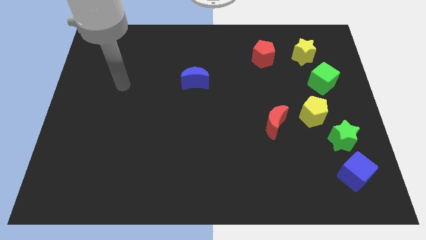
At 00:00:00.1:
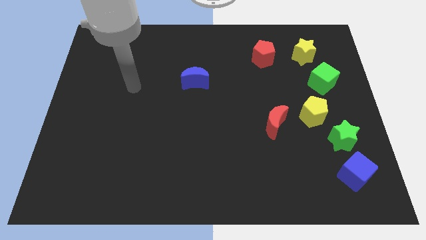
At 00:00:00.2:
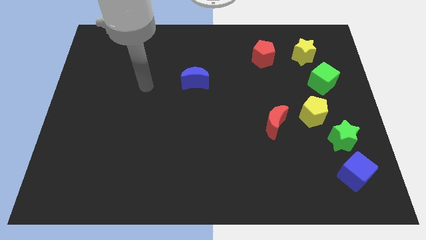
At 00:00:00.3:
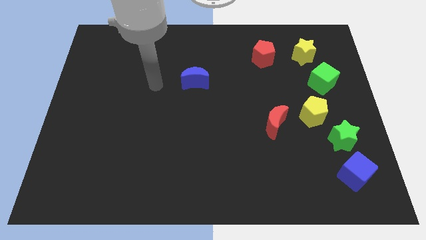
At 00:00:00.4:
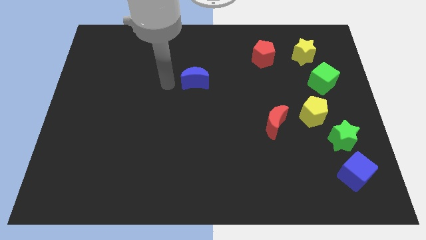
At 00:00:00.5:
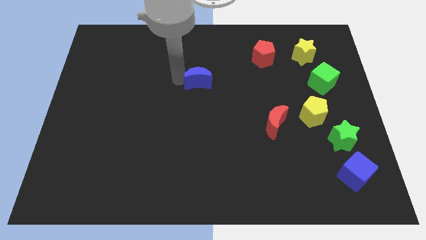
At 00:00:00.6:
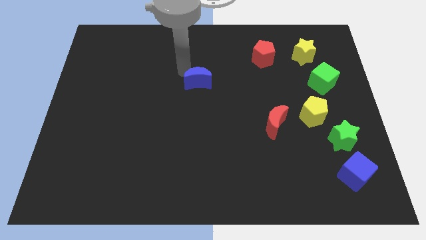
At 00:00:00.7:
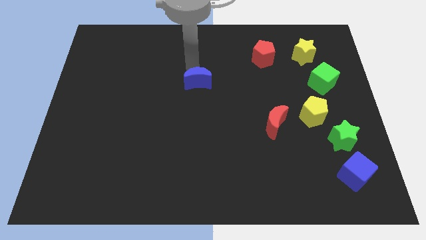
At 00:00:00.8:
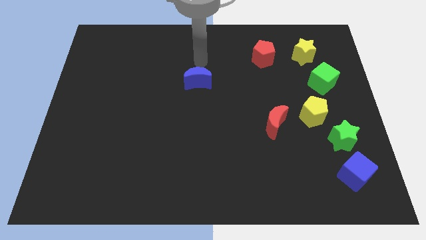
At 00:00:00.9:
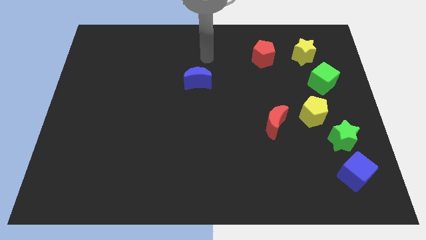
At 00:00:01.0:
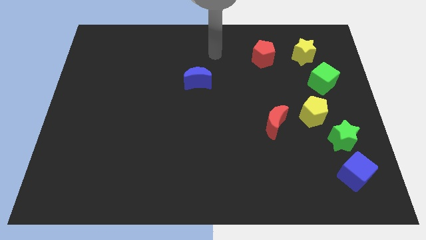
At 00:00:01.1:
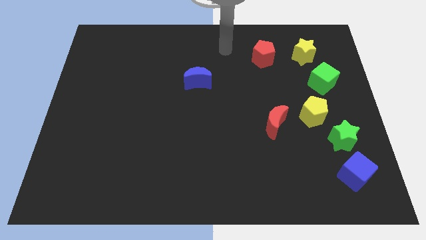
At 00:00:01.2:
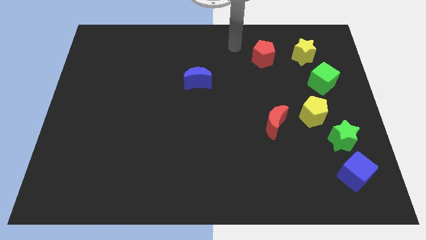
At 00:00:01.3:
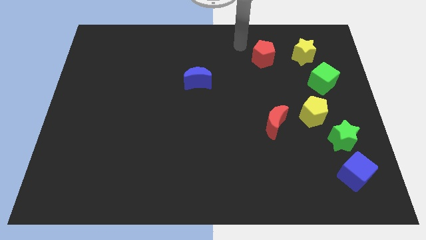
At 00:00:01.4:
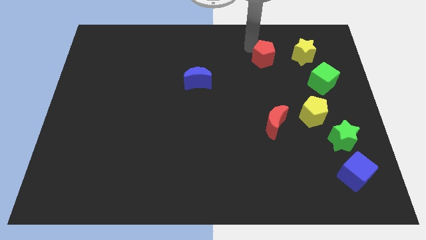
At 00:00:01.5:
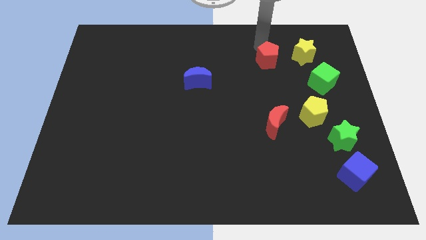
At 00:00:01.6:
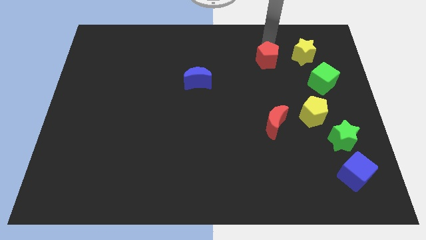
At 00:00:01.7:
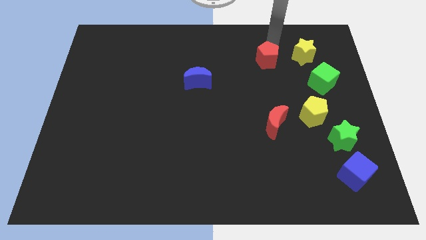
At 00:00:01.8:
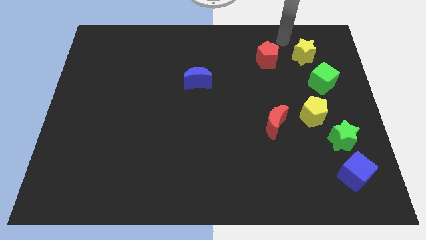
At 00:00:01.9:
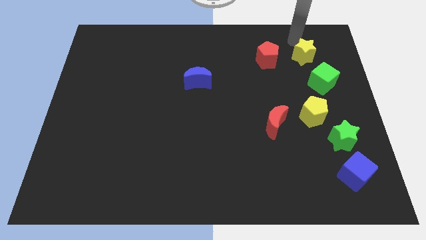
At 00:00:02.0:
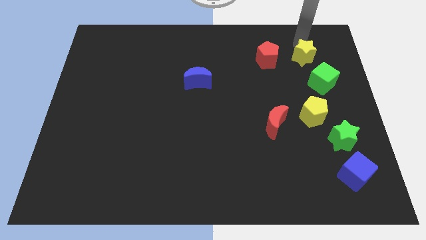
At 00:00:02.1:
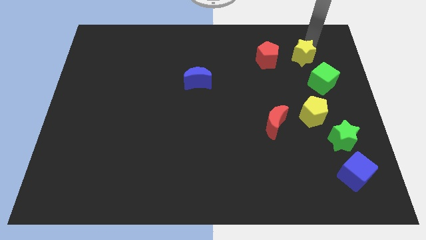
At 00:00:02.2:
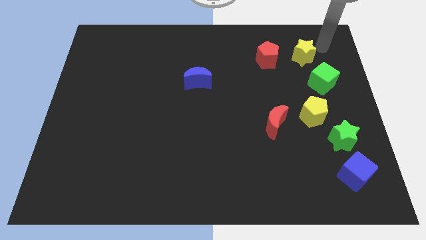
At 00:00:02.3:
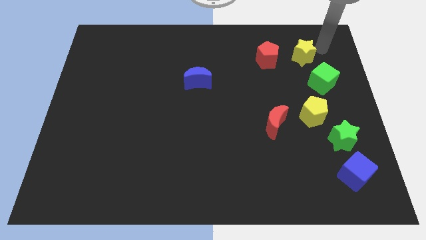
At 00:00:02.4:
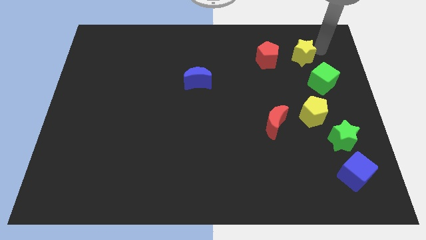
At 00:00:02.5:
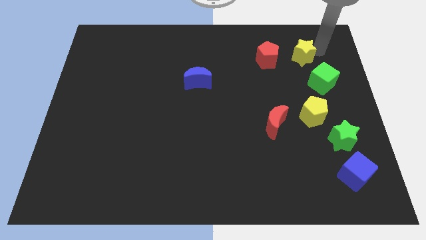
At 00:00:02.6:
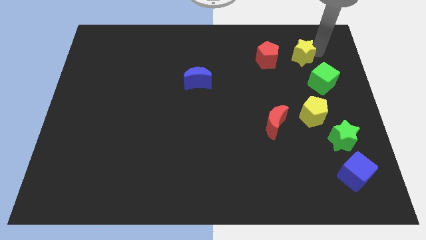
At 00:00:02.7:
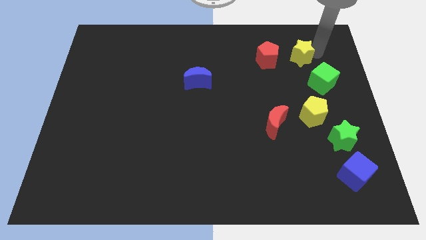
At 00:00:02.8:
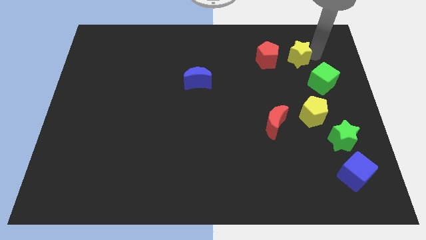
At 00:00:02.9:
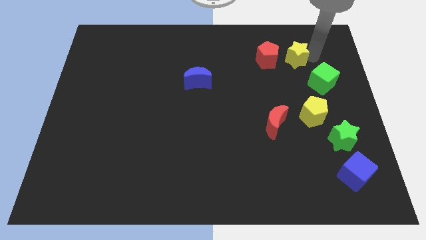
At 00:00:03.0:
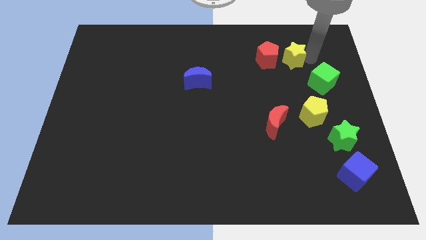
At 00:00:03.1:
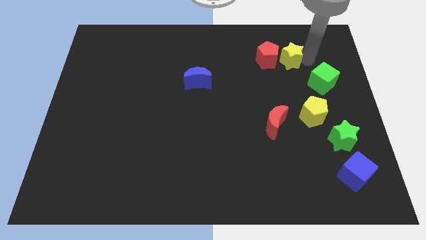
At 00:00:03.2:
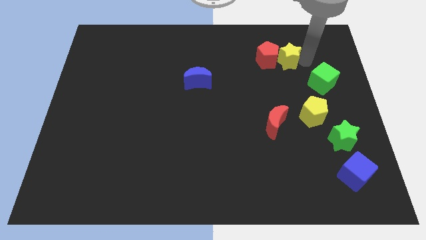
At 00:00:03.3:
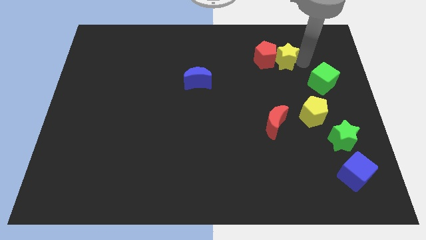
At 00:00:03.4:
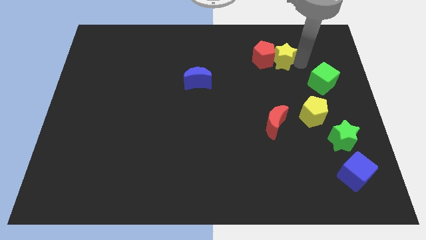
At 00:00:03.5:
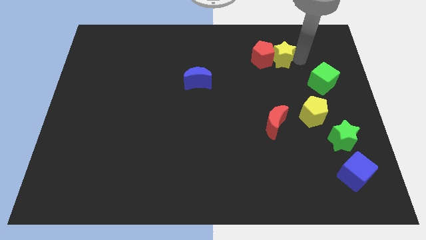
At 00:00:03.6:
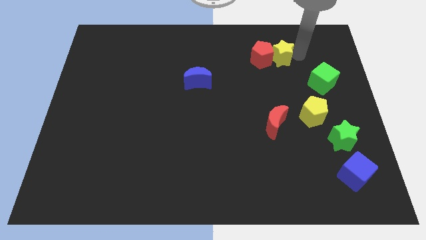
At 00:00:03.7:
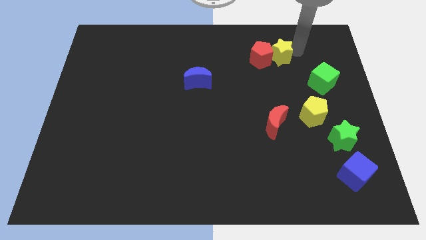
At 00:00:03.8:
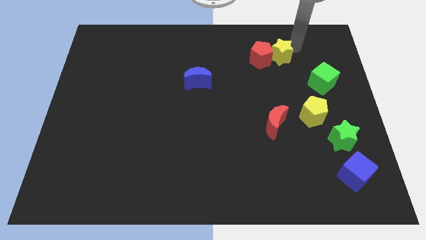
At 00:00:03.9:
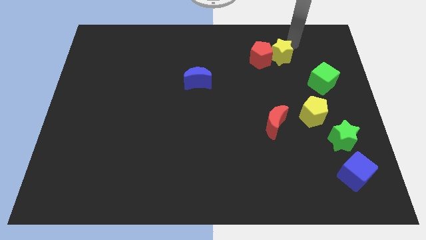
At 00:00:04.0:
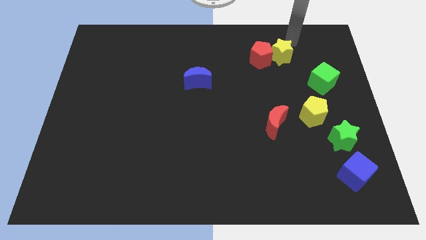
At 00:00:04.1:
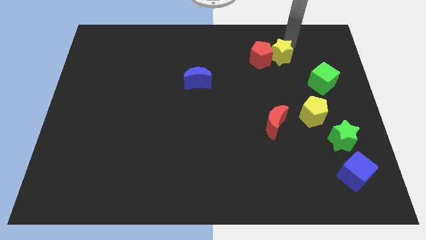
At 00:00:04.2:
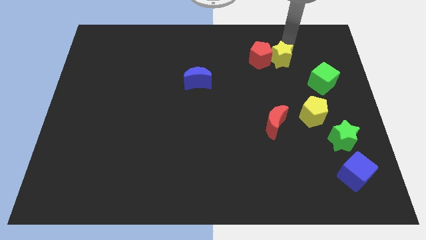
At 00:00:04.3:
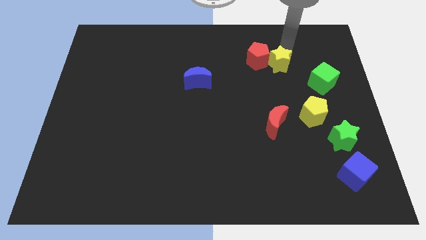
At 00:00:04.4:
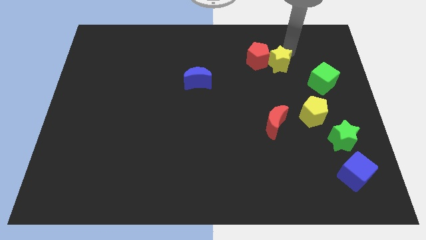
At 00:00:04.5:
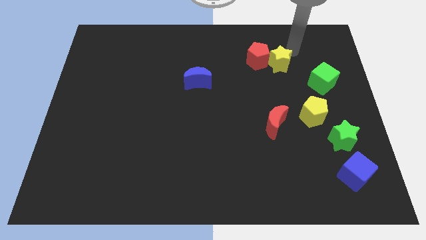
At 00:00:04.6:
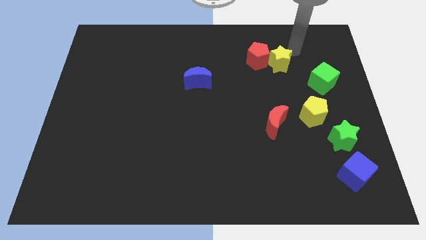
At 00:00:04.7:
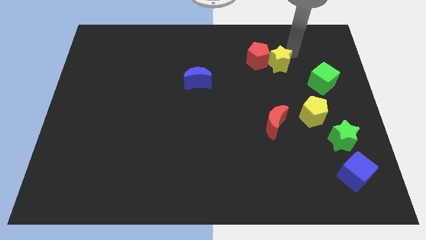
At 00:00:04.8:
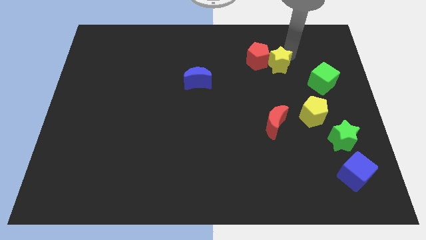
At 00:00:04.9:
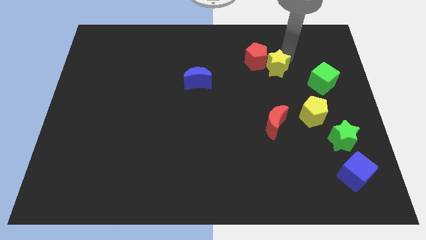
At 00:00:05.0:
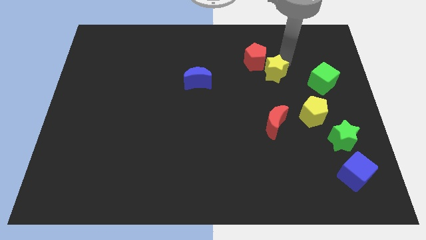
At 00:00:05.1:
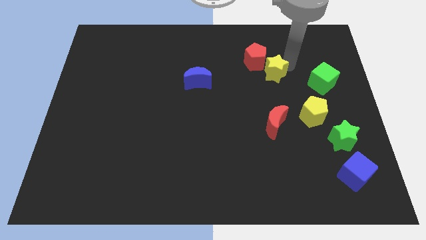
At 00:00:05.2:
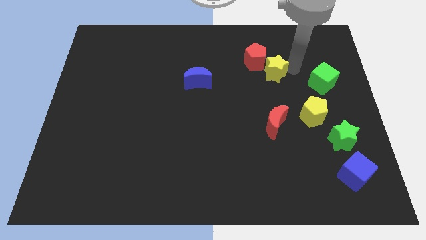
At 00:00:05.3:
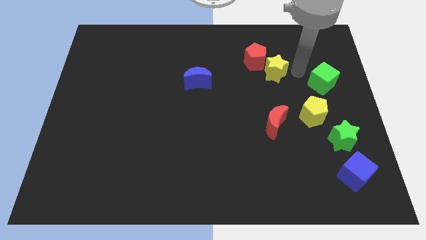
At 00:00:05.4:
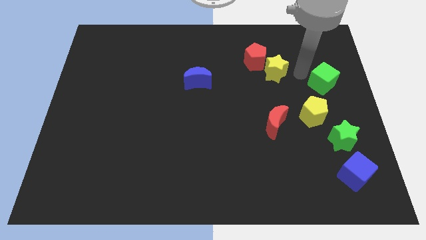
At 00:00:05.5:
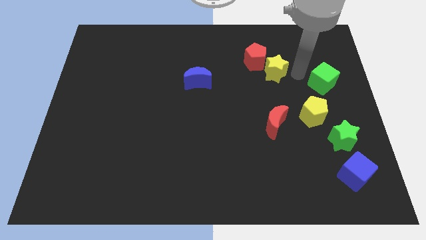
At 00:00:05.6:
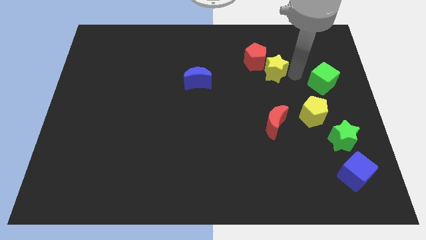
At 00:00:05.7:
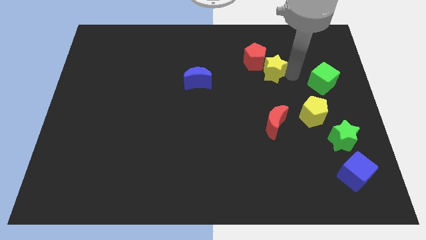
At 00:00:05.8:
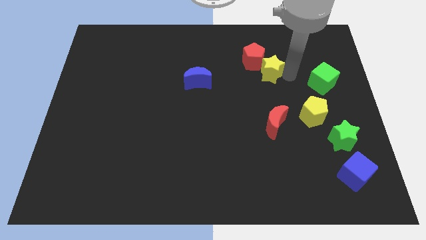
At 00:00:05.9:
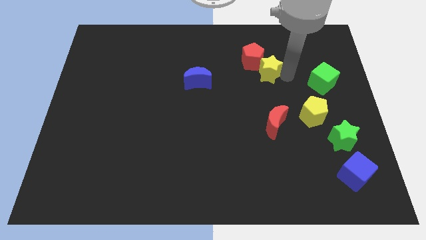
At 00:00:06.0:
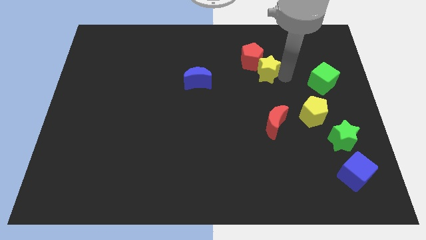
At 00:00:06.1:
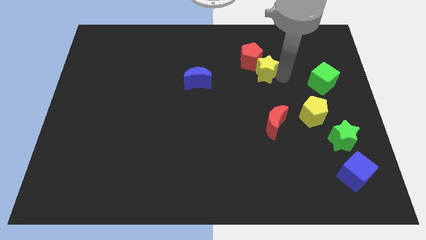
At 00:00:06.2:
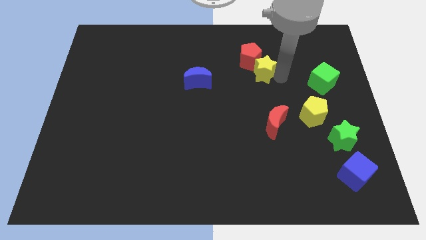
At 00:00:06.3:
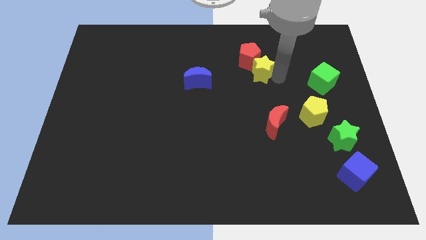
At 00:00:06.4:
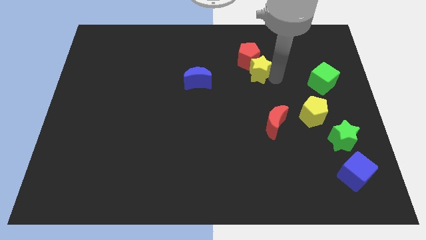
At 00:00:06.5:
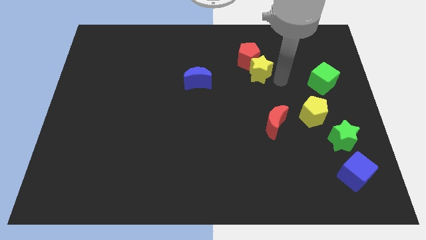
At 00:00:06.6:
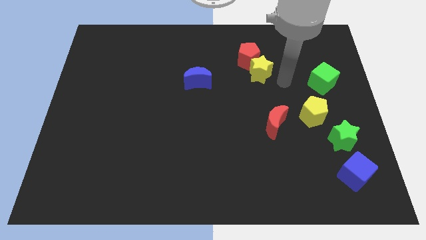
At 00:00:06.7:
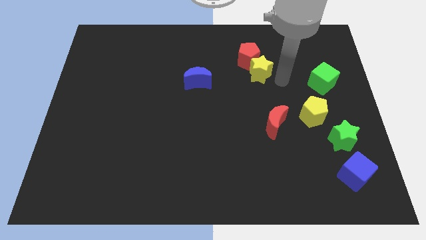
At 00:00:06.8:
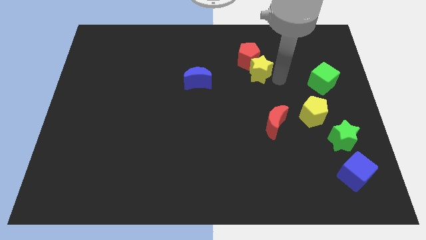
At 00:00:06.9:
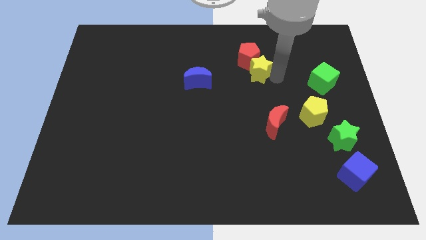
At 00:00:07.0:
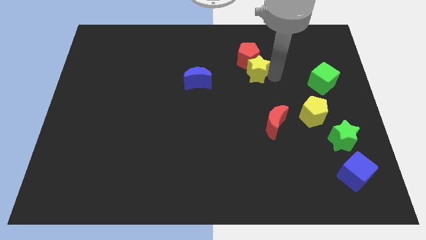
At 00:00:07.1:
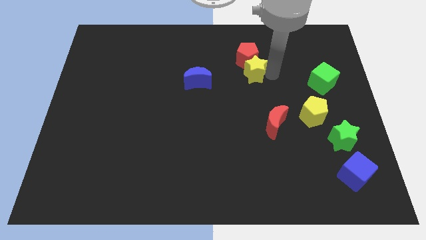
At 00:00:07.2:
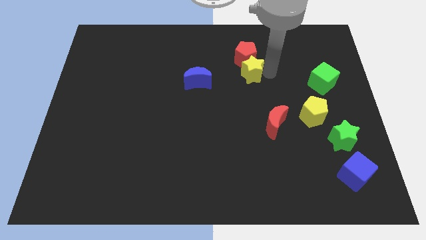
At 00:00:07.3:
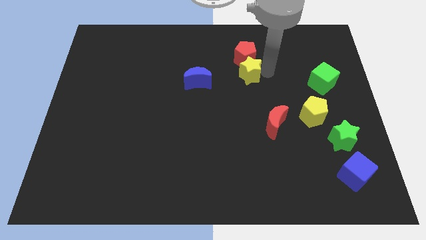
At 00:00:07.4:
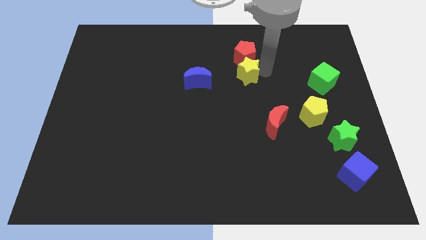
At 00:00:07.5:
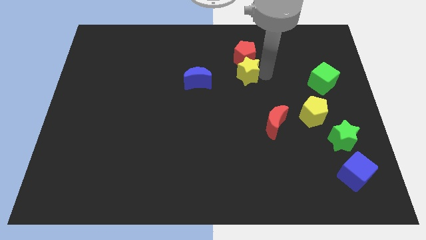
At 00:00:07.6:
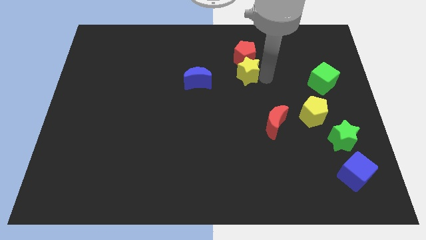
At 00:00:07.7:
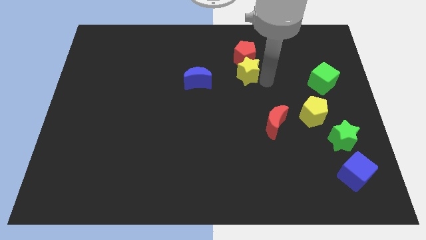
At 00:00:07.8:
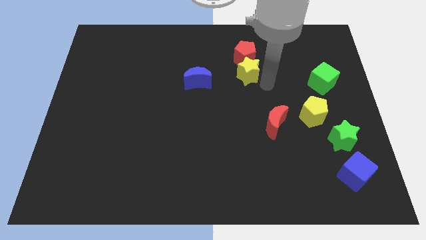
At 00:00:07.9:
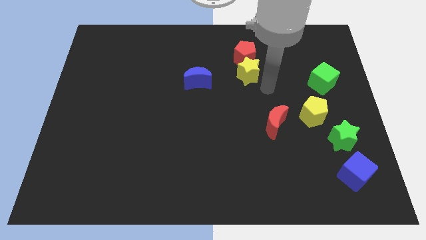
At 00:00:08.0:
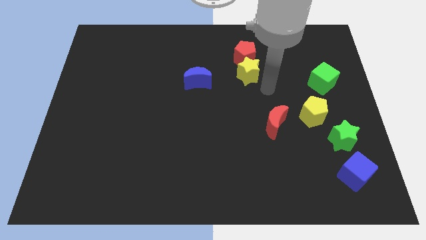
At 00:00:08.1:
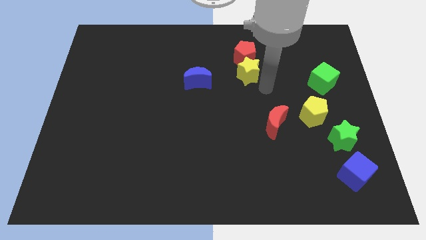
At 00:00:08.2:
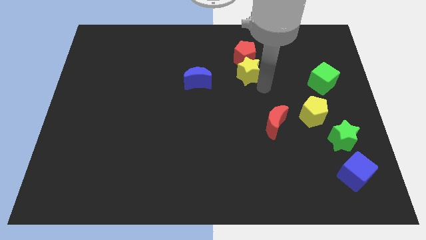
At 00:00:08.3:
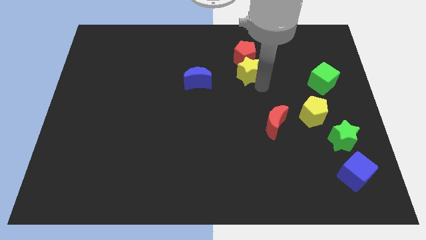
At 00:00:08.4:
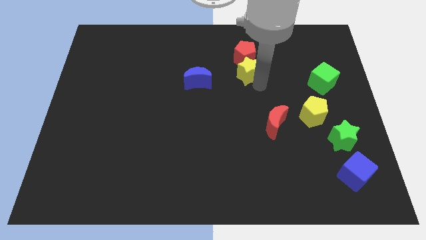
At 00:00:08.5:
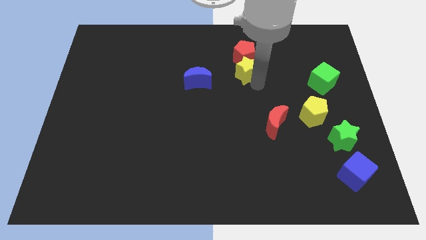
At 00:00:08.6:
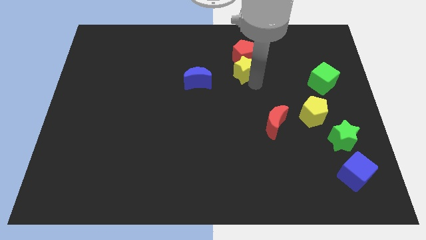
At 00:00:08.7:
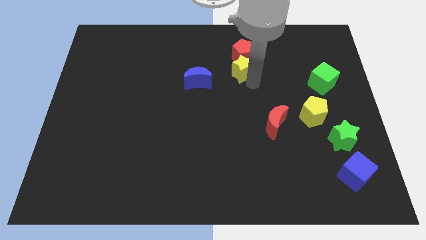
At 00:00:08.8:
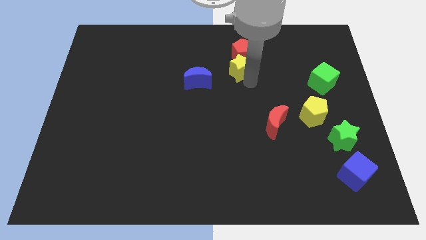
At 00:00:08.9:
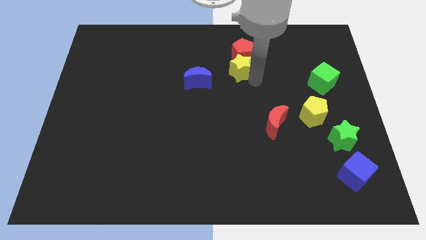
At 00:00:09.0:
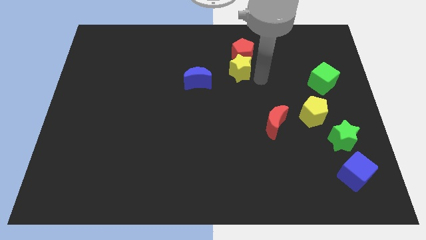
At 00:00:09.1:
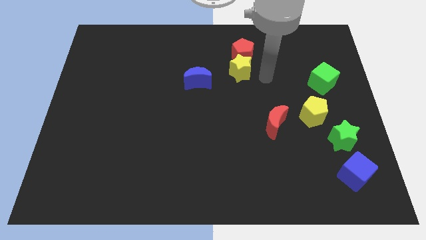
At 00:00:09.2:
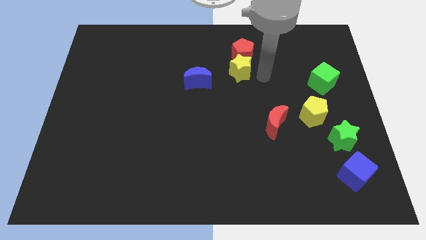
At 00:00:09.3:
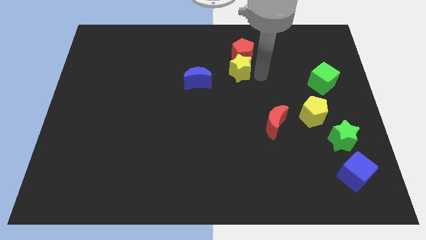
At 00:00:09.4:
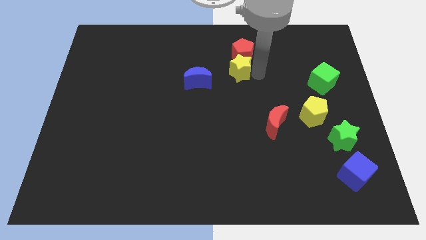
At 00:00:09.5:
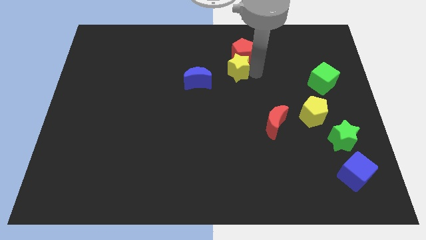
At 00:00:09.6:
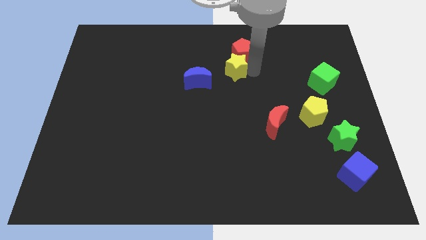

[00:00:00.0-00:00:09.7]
move the yellow star to the top right of the blue moon
